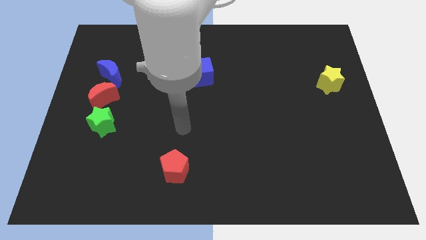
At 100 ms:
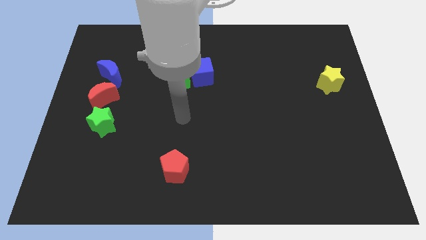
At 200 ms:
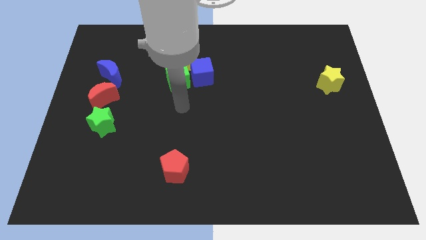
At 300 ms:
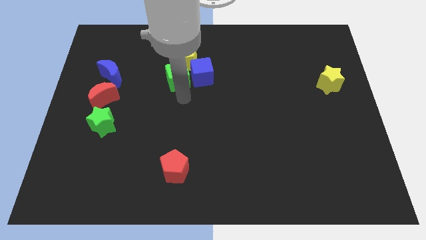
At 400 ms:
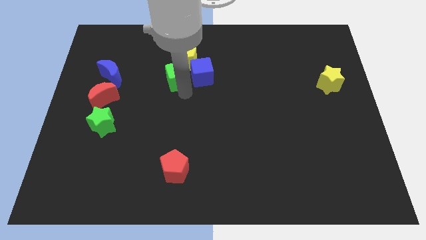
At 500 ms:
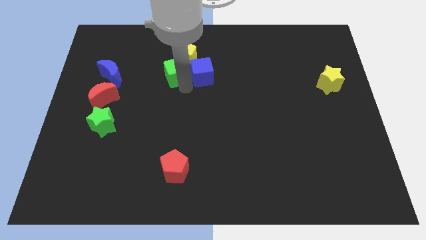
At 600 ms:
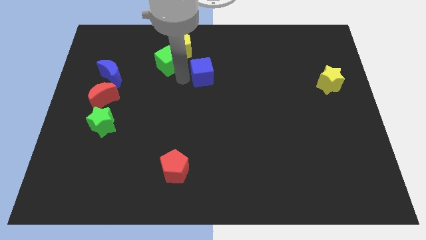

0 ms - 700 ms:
move the blue cube away from the green cube and yellow pentagon

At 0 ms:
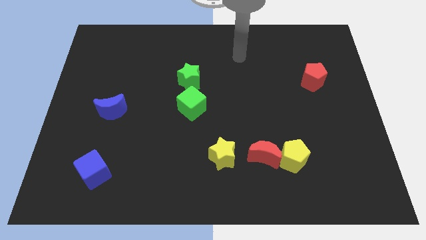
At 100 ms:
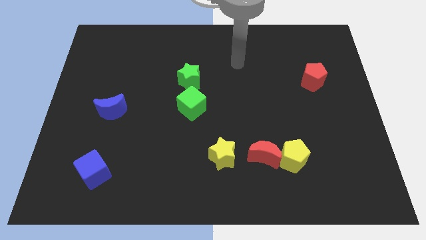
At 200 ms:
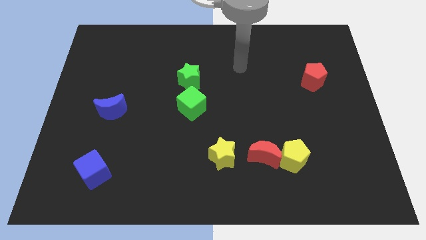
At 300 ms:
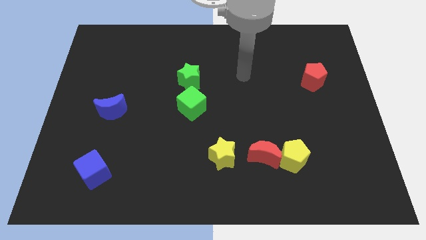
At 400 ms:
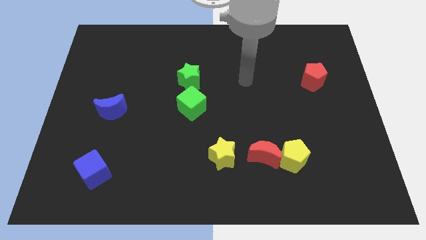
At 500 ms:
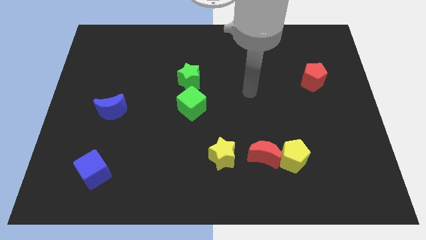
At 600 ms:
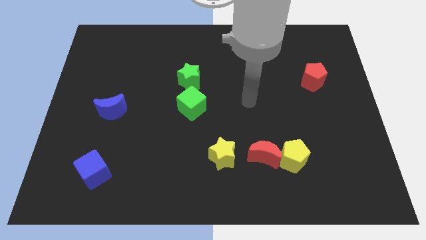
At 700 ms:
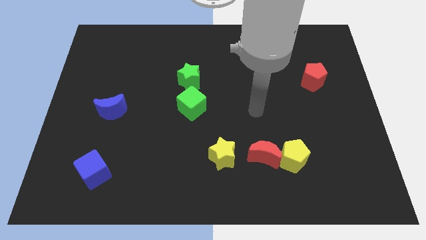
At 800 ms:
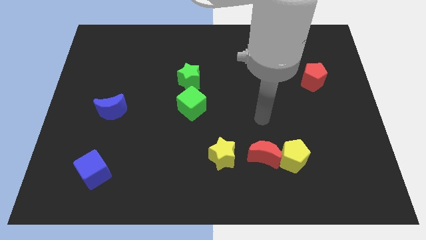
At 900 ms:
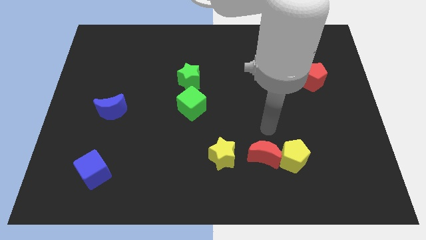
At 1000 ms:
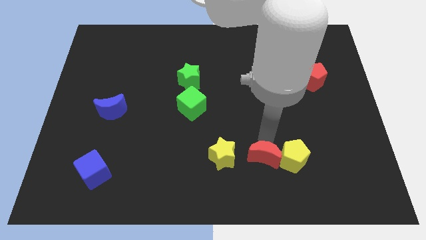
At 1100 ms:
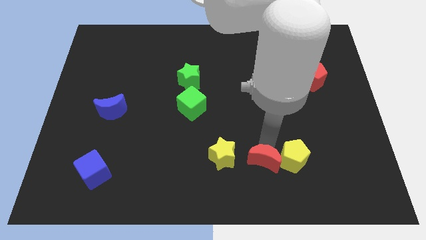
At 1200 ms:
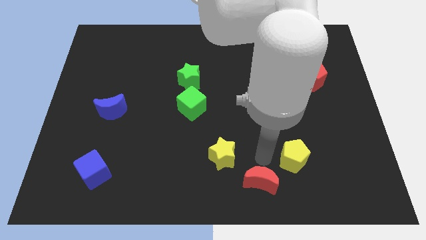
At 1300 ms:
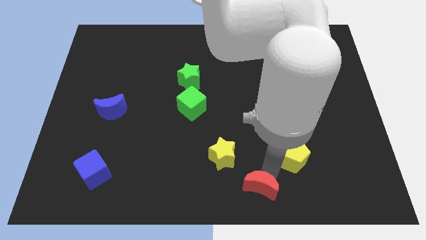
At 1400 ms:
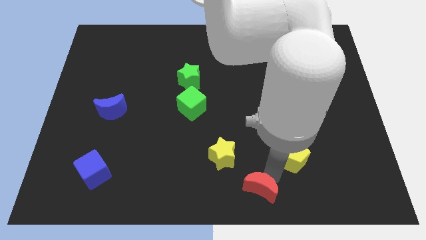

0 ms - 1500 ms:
pull the yellow pentagon apart from the red moon

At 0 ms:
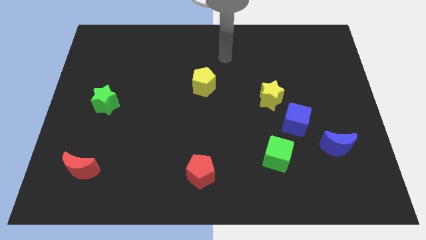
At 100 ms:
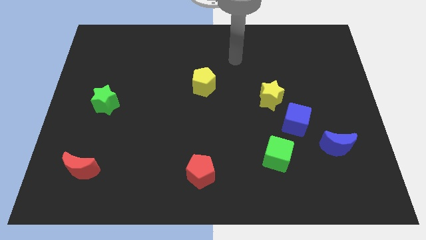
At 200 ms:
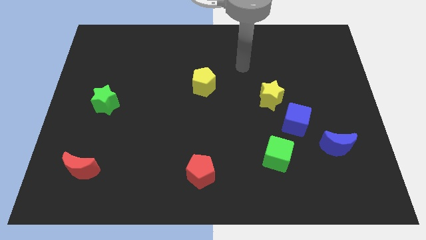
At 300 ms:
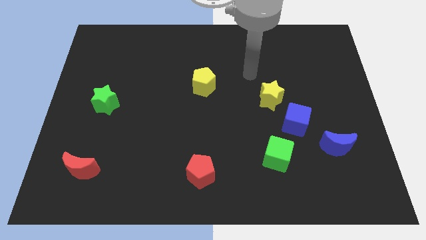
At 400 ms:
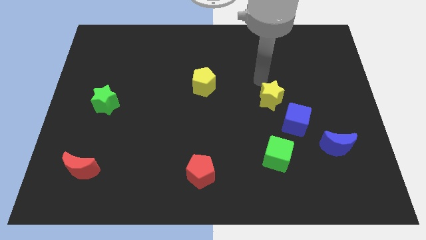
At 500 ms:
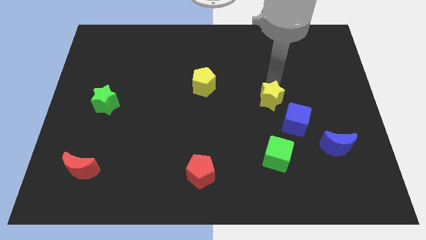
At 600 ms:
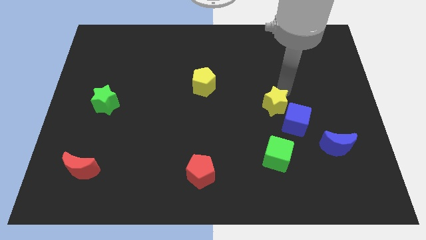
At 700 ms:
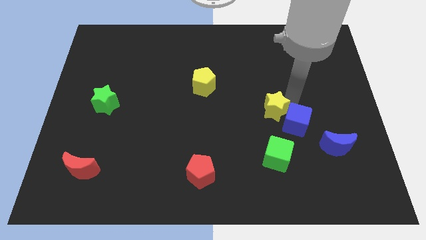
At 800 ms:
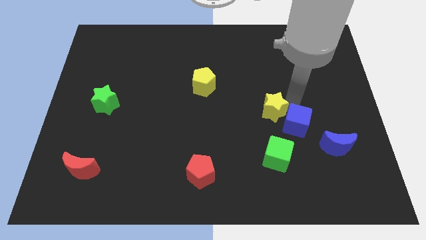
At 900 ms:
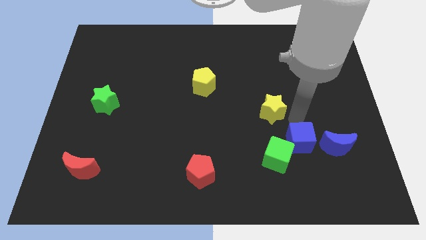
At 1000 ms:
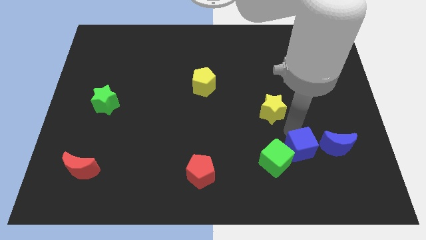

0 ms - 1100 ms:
move the yellow star away from the blue cube

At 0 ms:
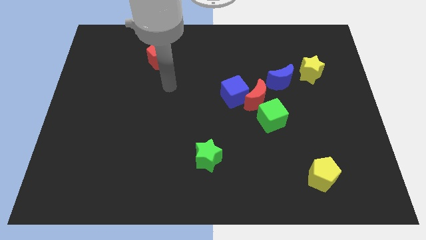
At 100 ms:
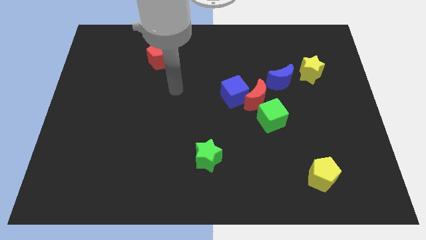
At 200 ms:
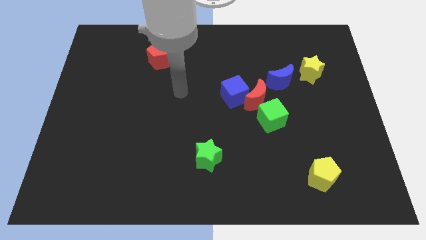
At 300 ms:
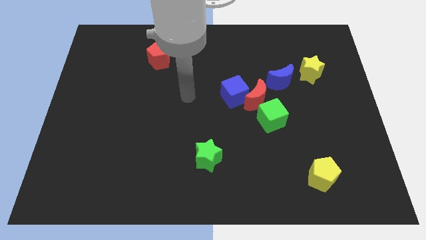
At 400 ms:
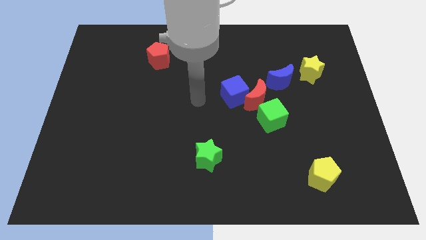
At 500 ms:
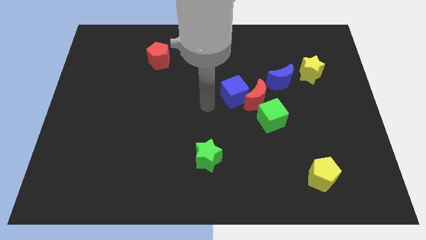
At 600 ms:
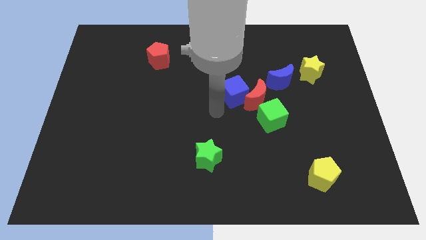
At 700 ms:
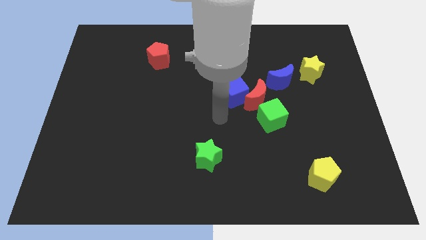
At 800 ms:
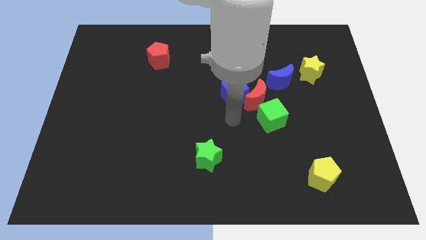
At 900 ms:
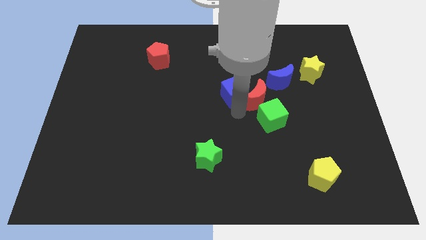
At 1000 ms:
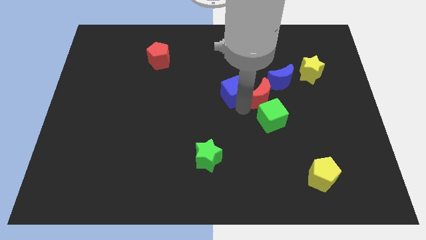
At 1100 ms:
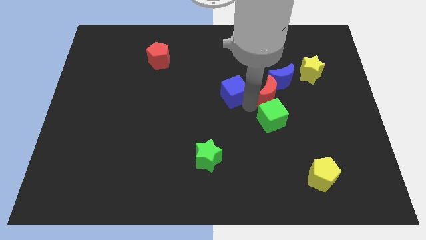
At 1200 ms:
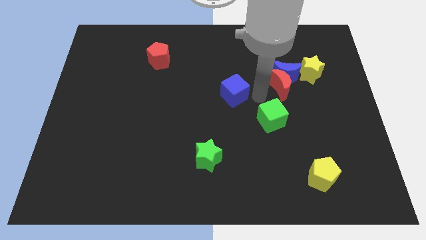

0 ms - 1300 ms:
separate the blue cube from the red moon

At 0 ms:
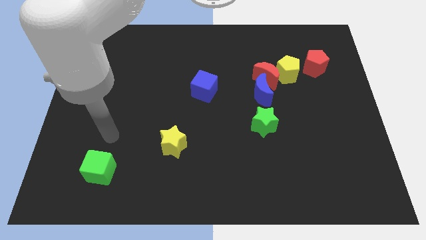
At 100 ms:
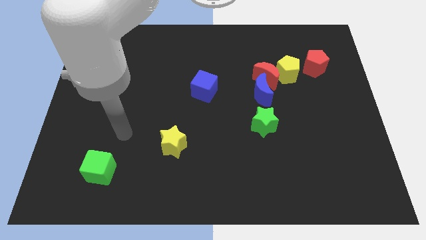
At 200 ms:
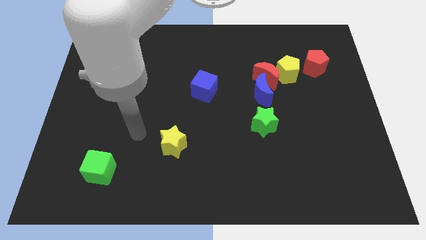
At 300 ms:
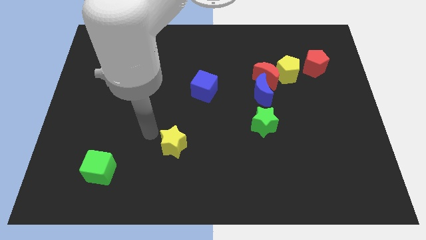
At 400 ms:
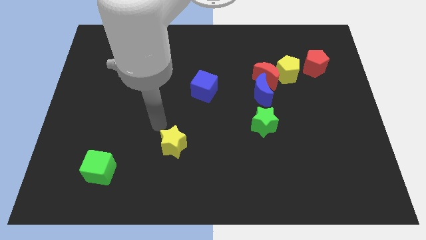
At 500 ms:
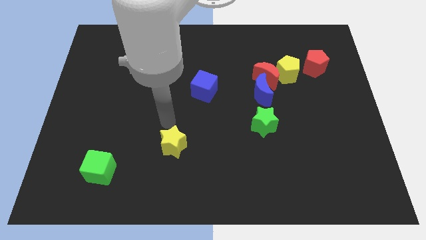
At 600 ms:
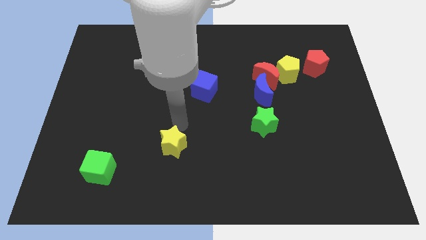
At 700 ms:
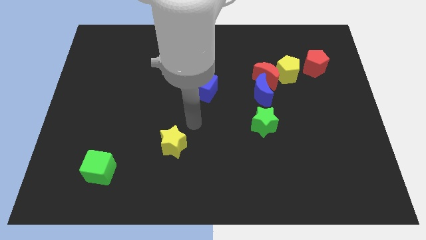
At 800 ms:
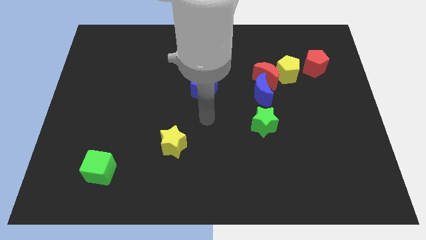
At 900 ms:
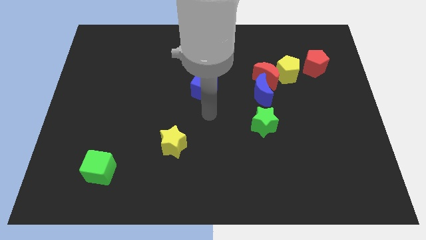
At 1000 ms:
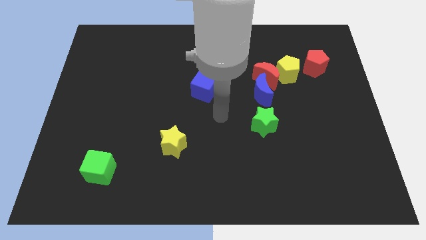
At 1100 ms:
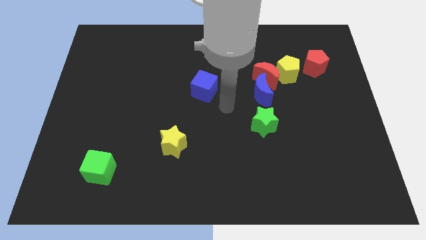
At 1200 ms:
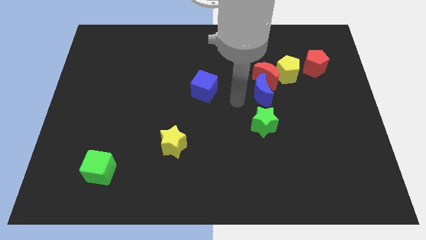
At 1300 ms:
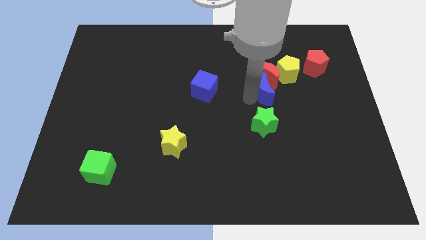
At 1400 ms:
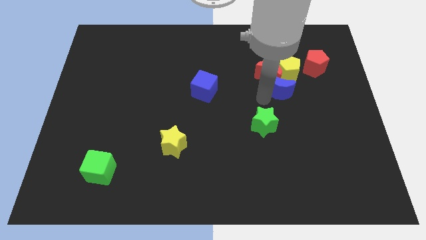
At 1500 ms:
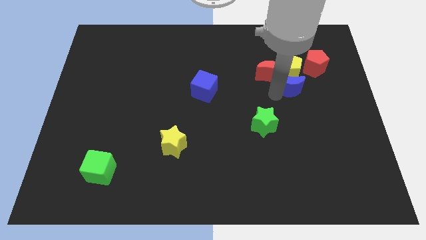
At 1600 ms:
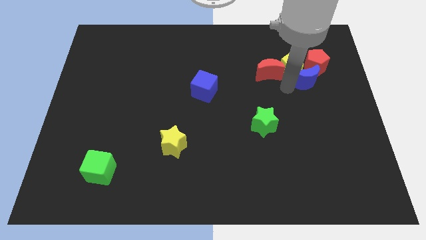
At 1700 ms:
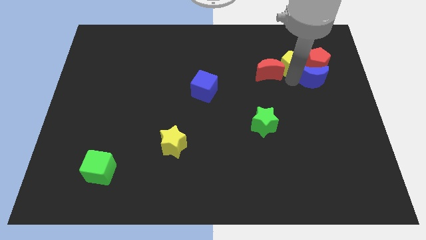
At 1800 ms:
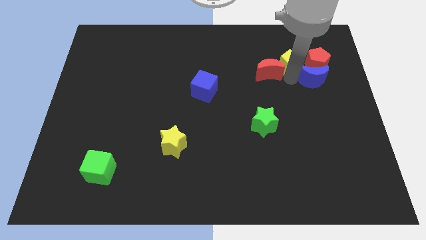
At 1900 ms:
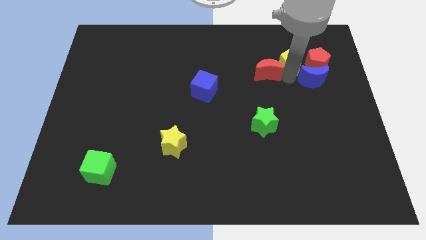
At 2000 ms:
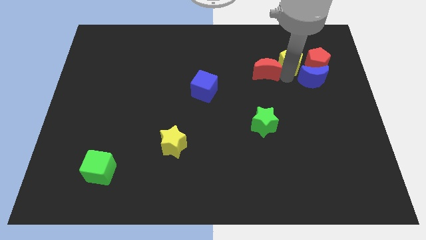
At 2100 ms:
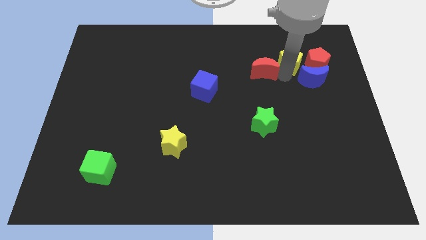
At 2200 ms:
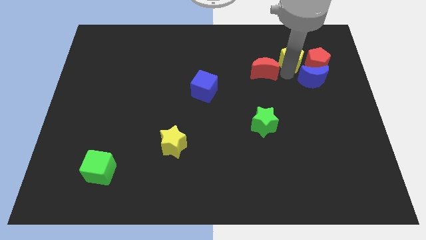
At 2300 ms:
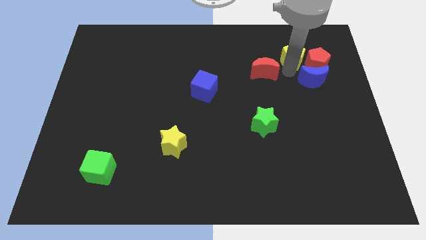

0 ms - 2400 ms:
separate the red moon from the blue moon and yellow pentagon

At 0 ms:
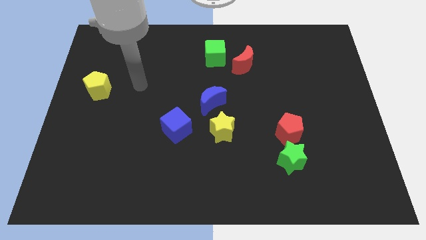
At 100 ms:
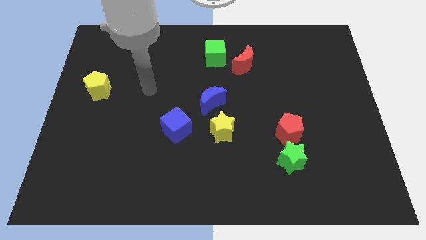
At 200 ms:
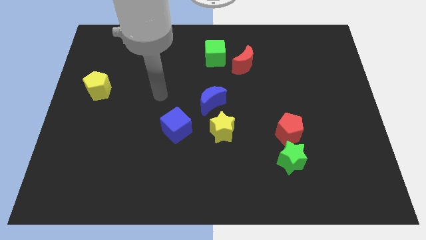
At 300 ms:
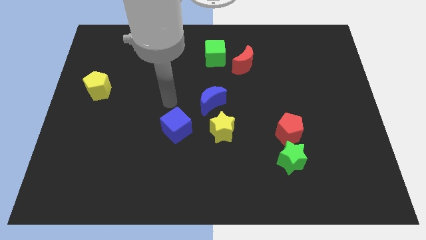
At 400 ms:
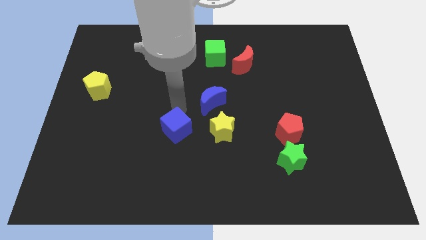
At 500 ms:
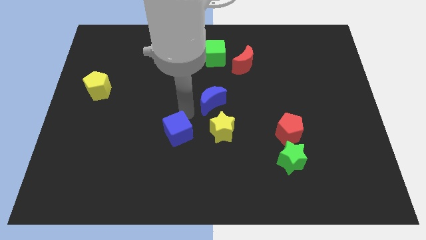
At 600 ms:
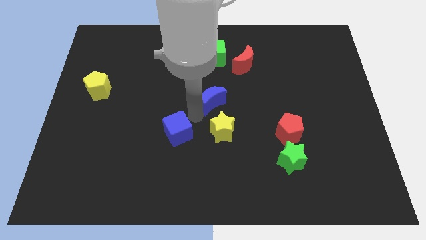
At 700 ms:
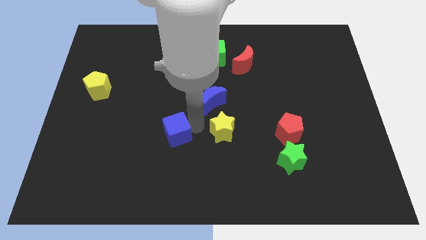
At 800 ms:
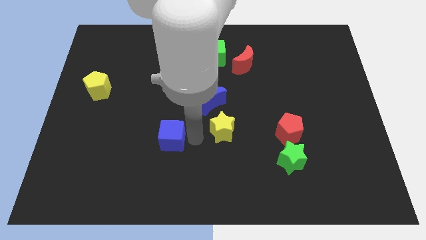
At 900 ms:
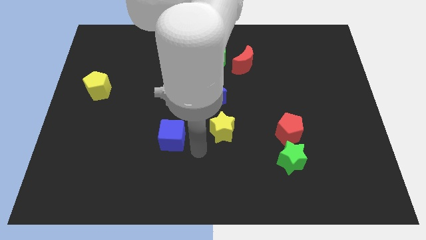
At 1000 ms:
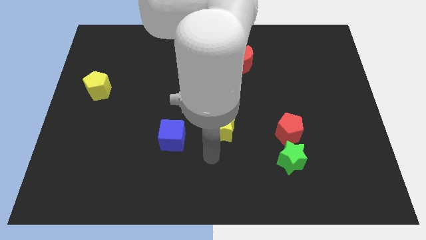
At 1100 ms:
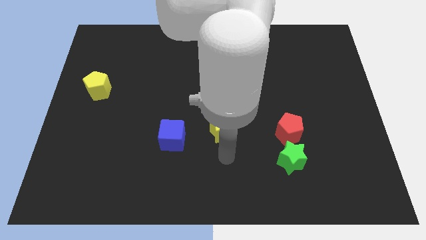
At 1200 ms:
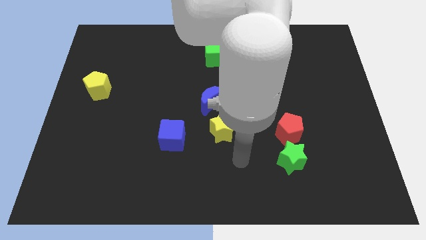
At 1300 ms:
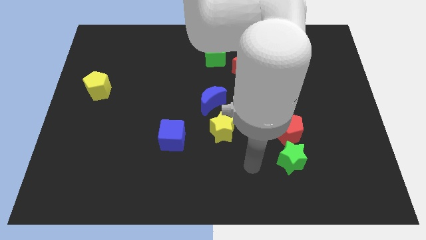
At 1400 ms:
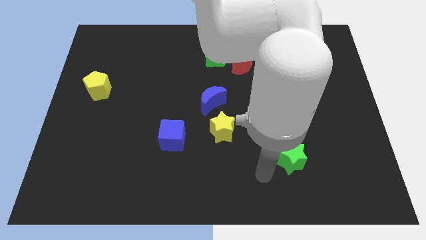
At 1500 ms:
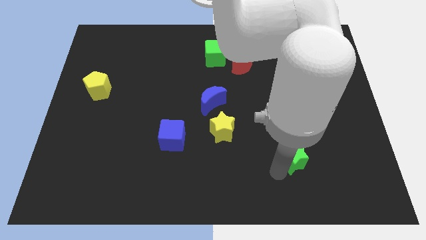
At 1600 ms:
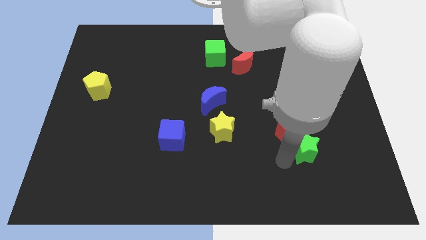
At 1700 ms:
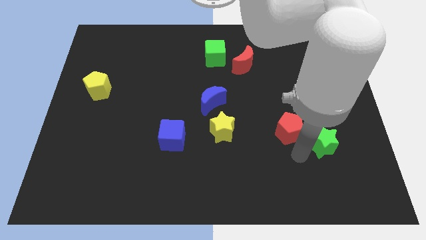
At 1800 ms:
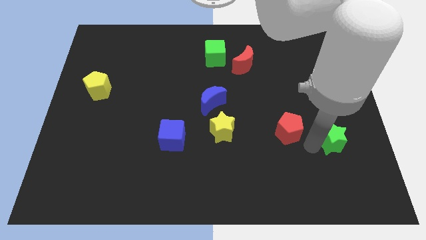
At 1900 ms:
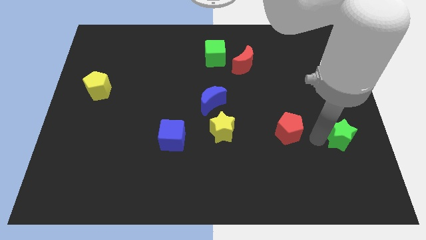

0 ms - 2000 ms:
separate the red pentagon from the green star

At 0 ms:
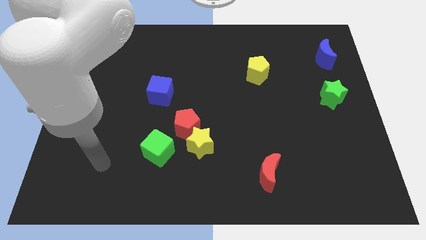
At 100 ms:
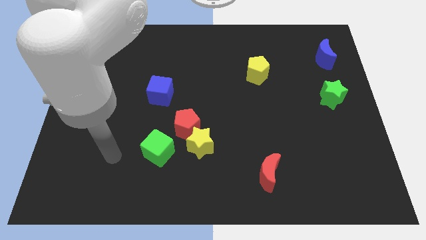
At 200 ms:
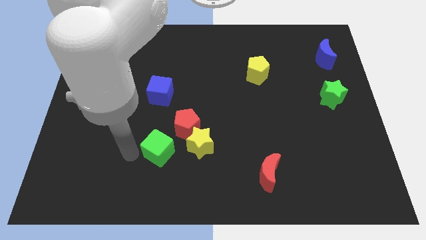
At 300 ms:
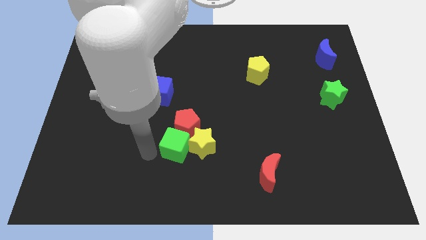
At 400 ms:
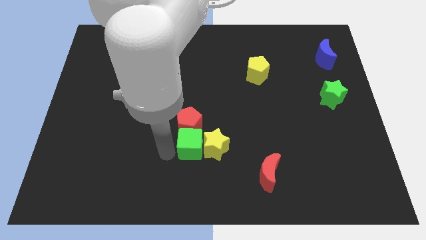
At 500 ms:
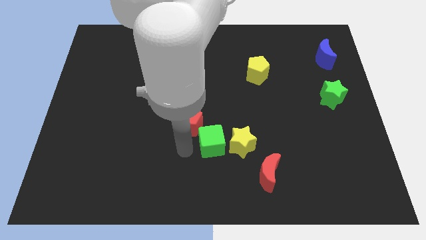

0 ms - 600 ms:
separate the red pentagon from the yellow star and green cube
